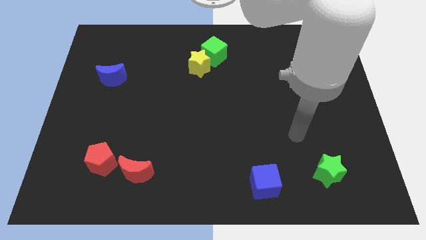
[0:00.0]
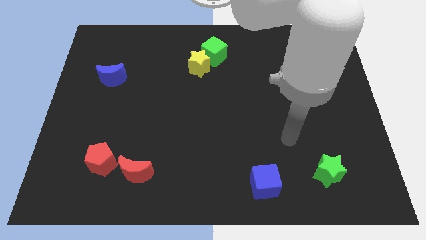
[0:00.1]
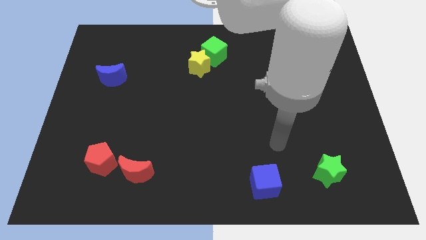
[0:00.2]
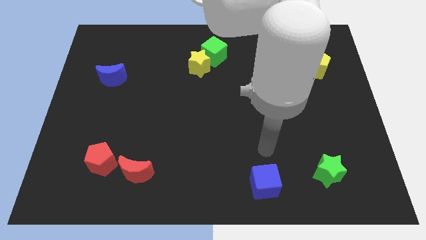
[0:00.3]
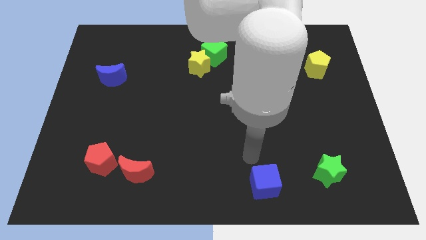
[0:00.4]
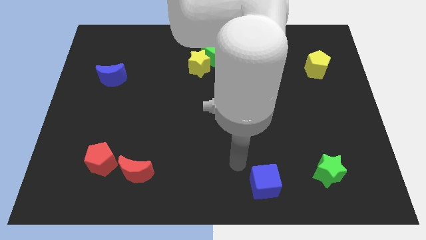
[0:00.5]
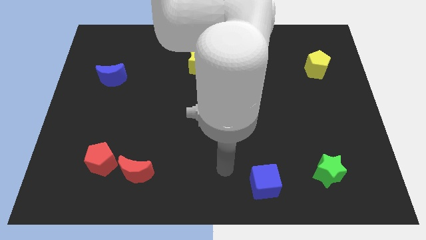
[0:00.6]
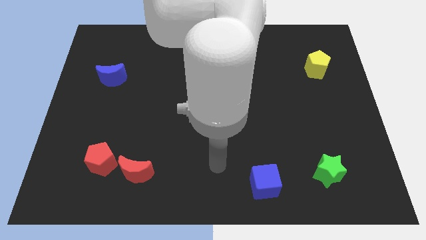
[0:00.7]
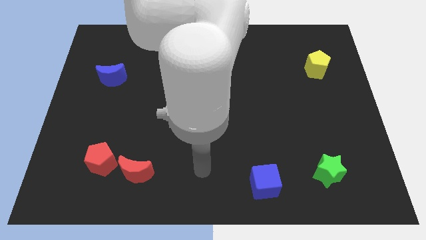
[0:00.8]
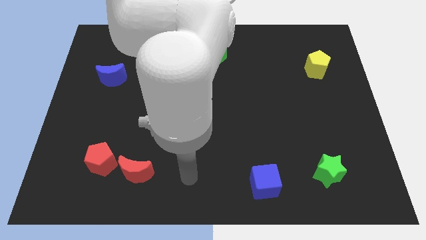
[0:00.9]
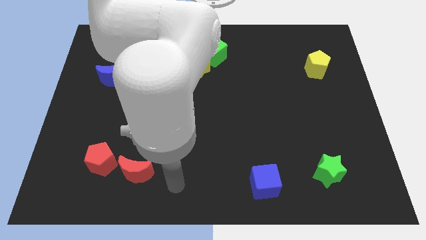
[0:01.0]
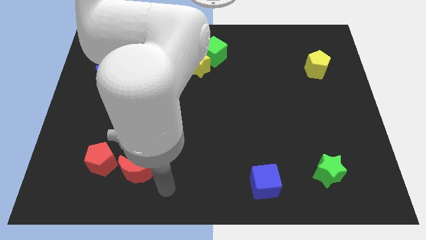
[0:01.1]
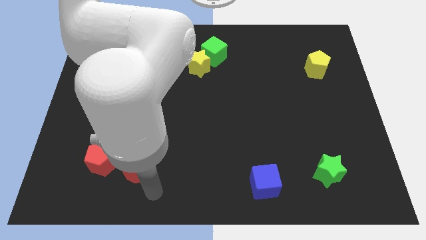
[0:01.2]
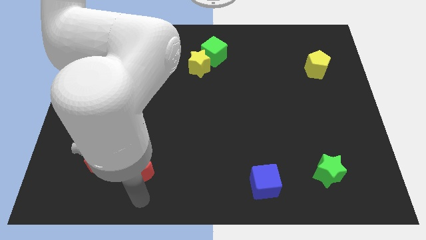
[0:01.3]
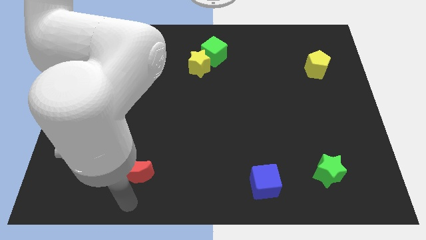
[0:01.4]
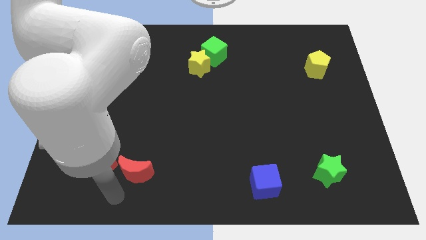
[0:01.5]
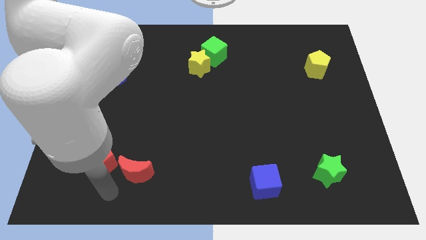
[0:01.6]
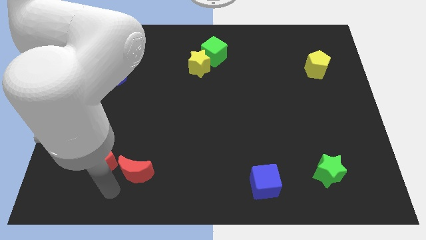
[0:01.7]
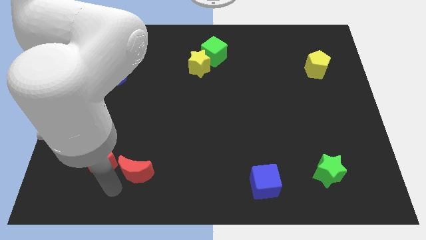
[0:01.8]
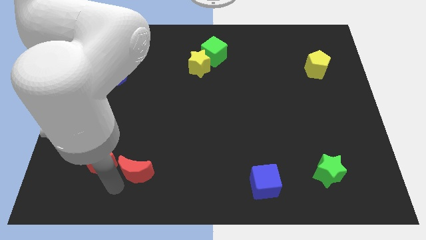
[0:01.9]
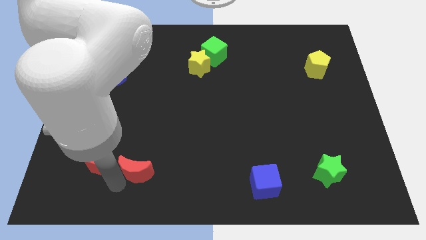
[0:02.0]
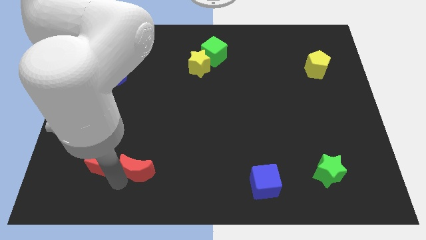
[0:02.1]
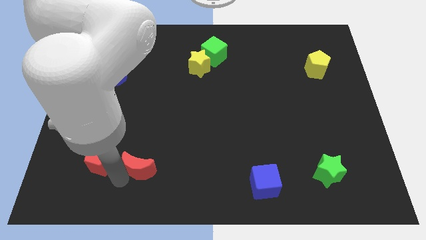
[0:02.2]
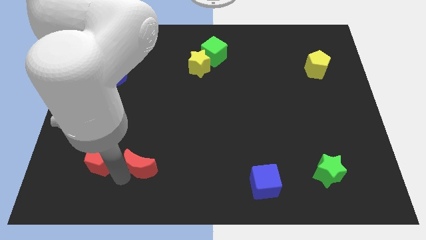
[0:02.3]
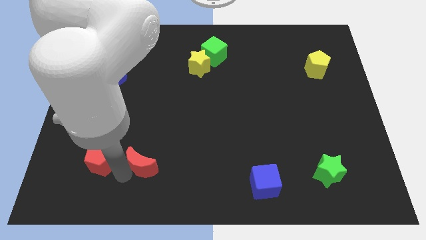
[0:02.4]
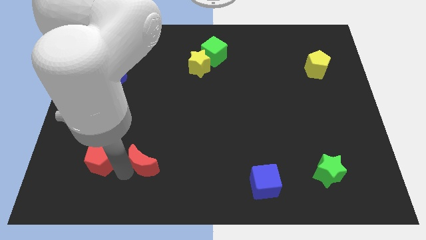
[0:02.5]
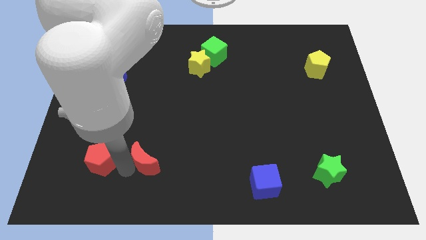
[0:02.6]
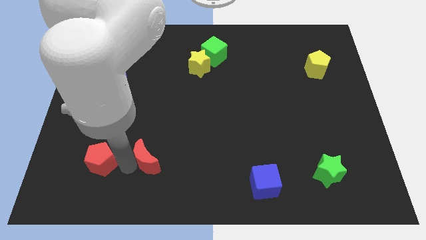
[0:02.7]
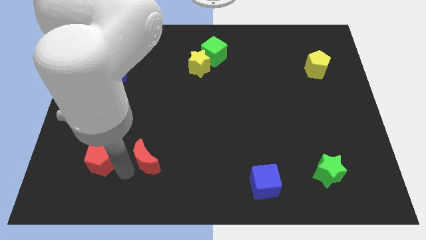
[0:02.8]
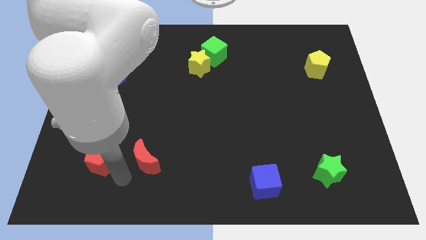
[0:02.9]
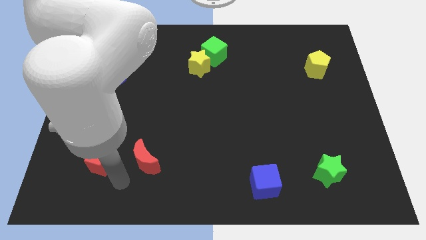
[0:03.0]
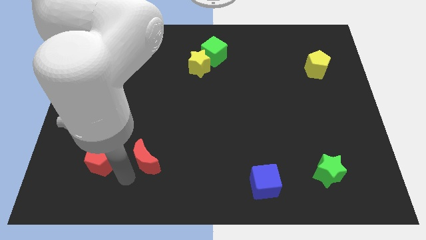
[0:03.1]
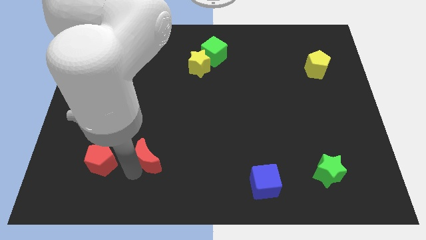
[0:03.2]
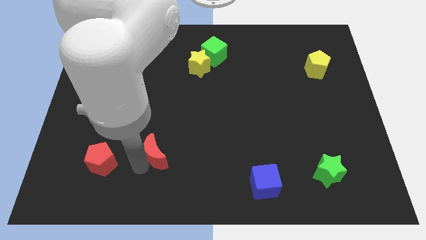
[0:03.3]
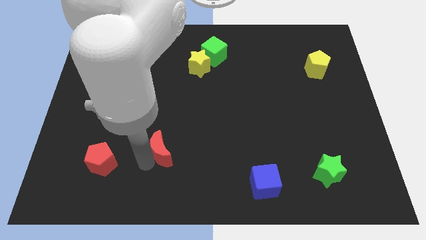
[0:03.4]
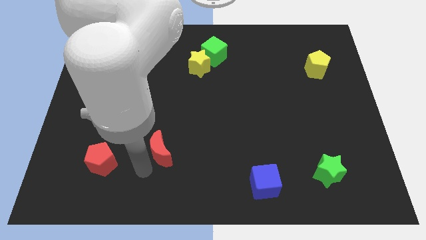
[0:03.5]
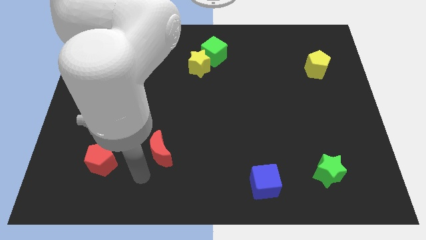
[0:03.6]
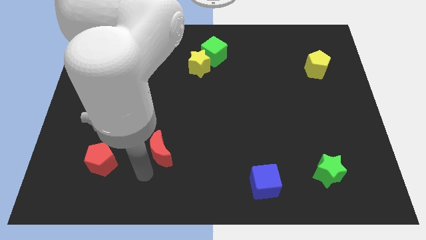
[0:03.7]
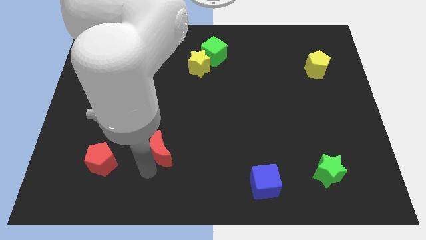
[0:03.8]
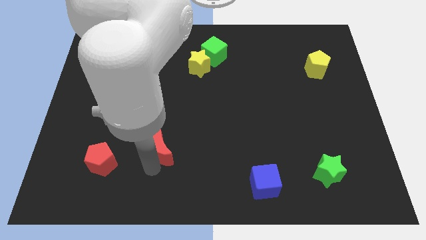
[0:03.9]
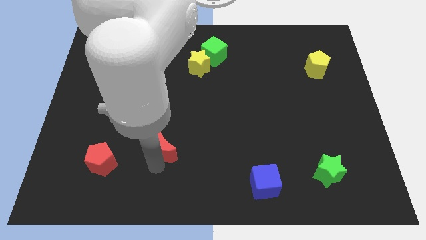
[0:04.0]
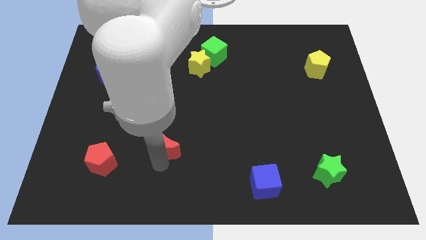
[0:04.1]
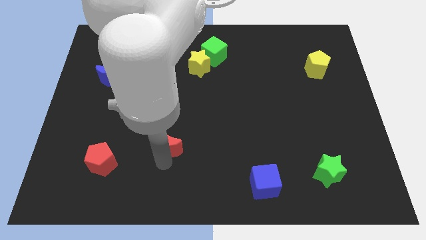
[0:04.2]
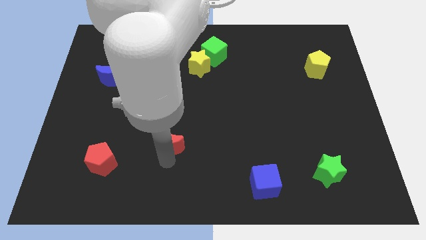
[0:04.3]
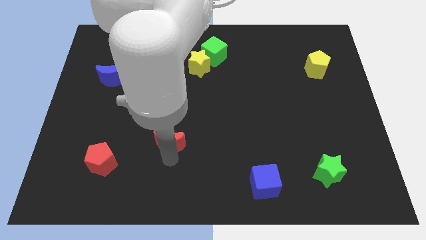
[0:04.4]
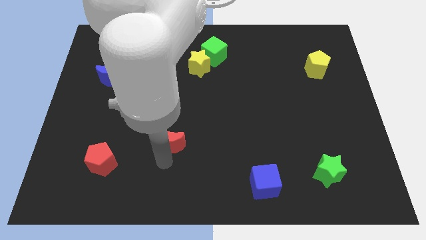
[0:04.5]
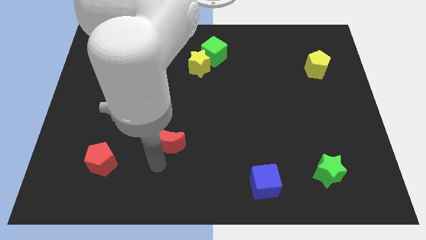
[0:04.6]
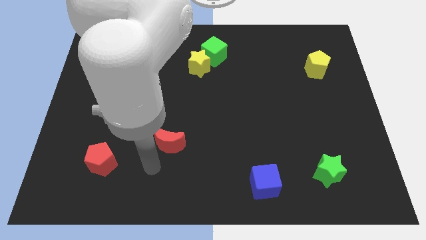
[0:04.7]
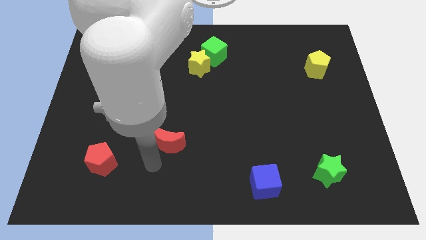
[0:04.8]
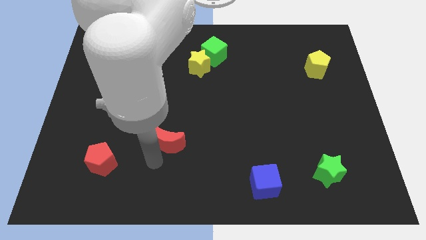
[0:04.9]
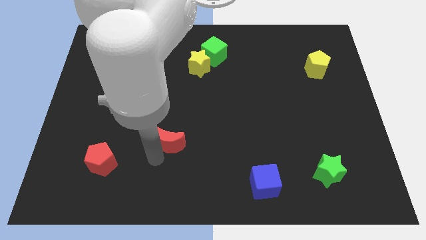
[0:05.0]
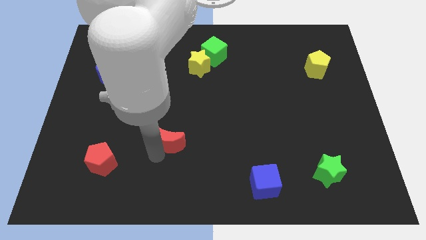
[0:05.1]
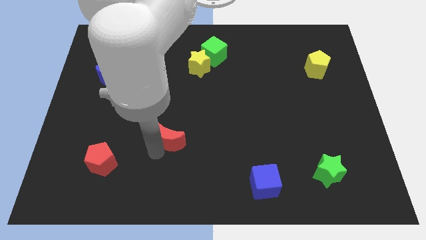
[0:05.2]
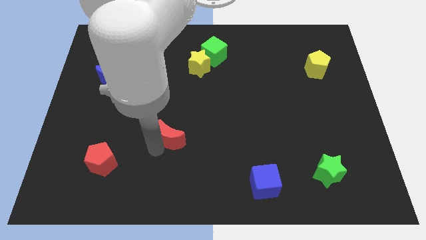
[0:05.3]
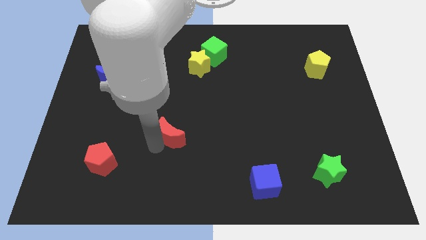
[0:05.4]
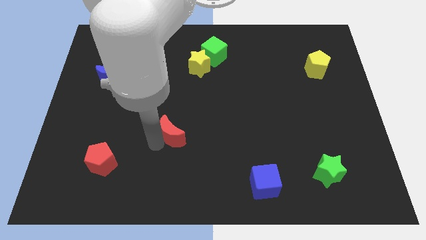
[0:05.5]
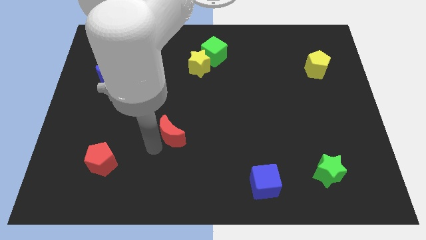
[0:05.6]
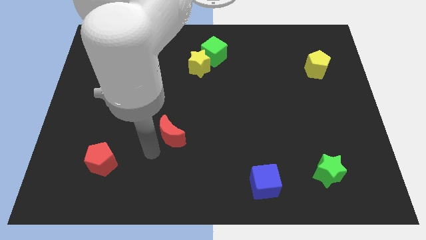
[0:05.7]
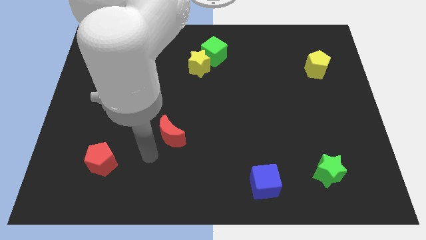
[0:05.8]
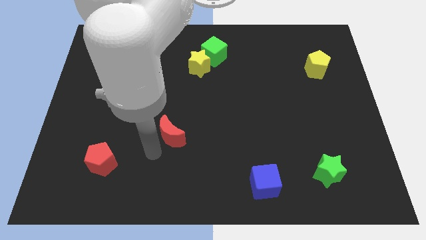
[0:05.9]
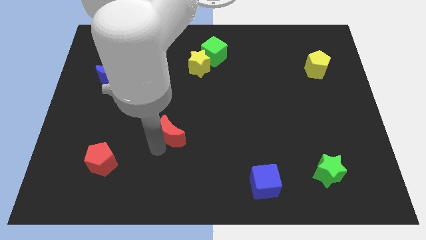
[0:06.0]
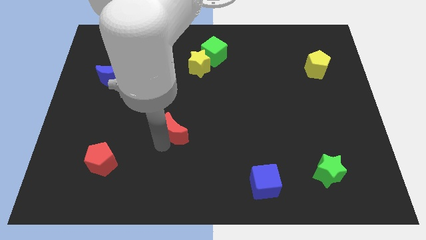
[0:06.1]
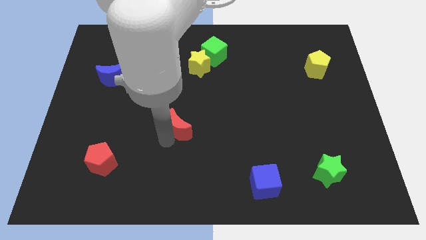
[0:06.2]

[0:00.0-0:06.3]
move the red moon to the center

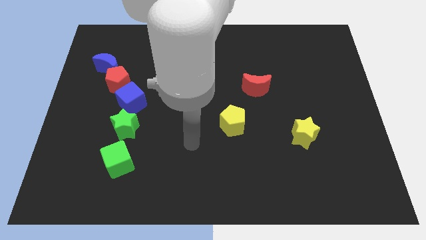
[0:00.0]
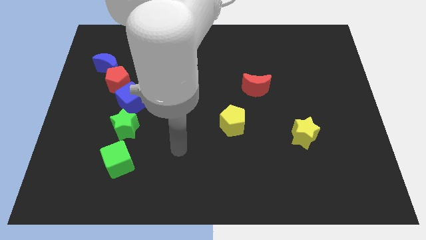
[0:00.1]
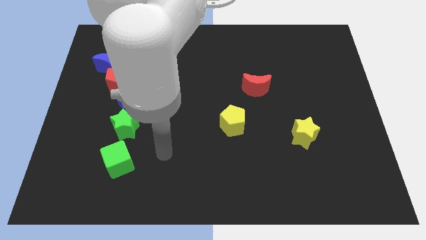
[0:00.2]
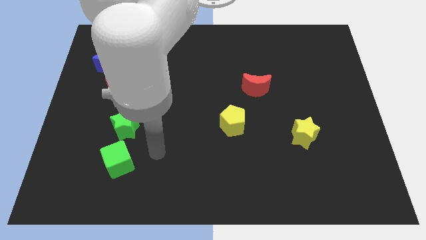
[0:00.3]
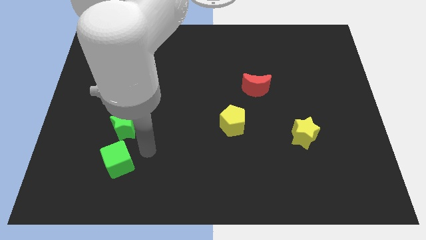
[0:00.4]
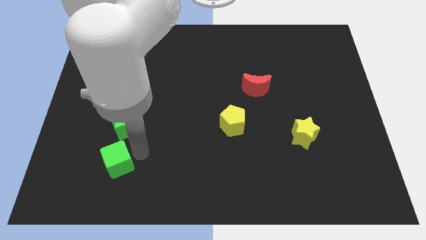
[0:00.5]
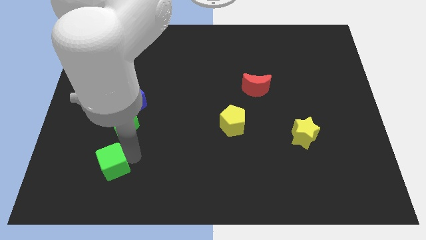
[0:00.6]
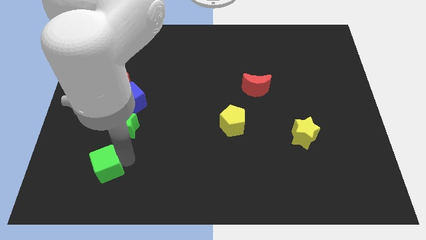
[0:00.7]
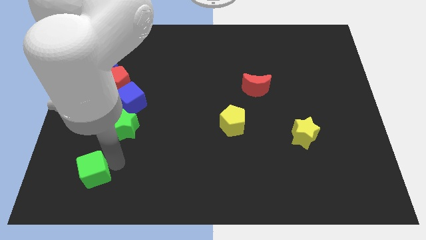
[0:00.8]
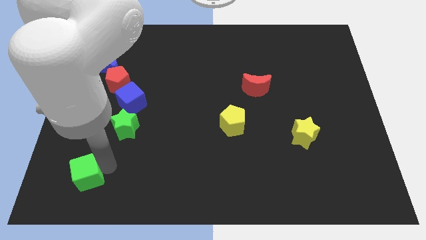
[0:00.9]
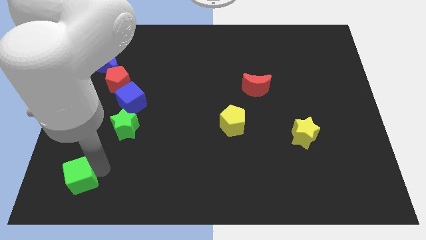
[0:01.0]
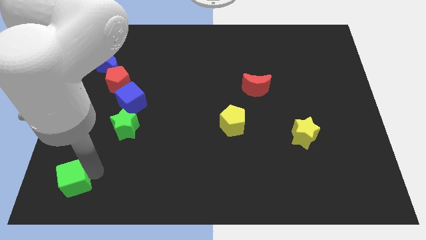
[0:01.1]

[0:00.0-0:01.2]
put the green cube to the bottom left corner
